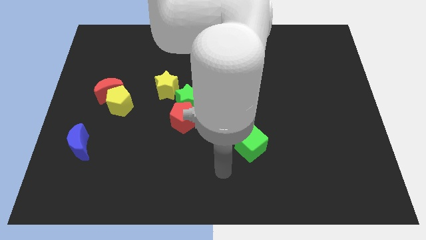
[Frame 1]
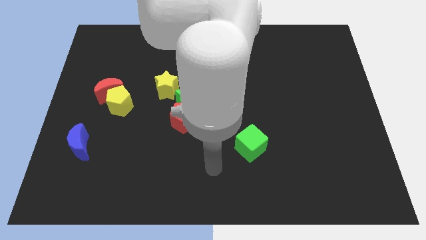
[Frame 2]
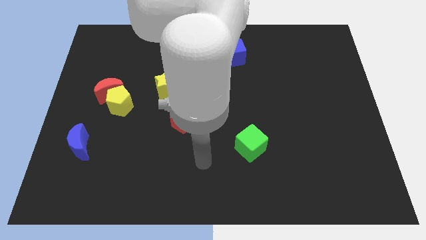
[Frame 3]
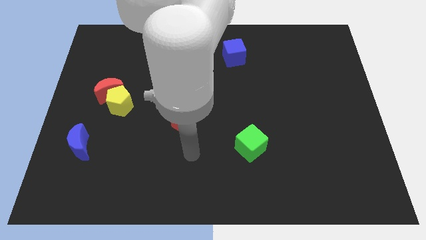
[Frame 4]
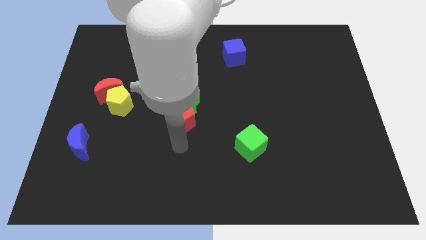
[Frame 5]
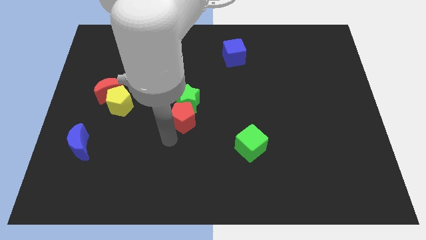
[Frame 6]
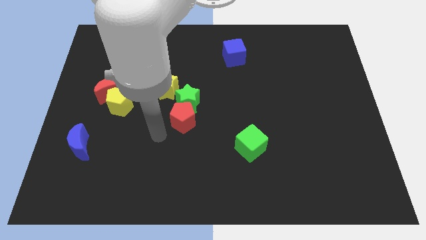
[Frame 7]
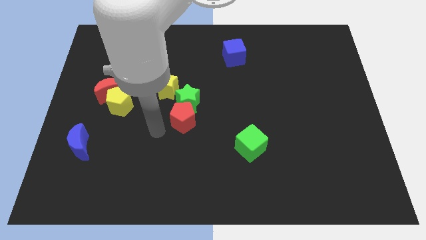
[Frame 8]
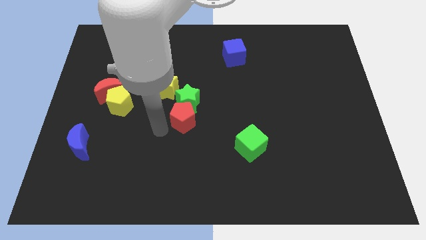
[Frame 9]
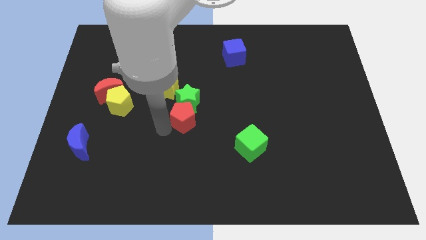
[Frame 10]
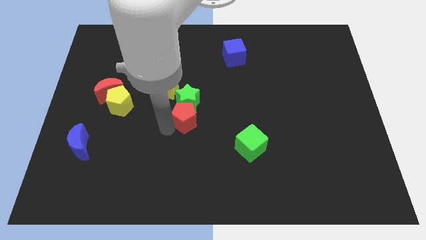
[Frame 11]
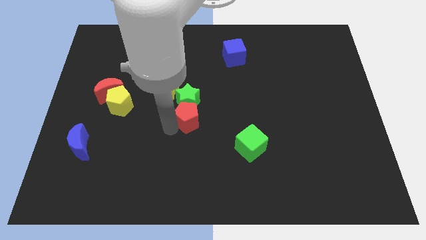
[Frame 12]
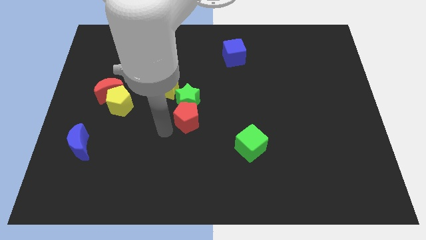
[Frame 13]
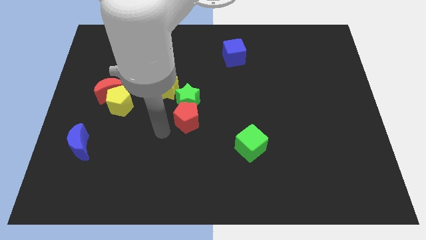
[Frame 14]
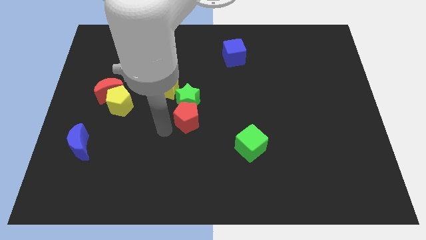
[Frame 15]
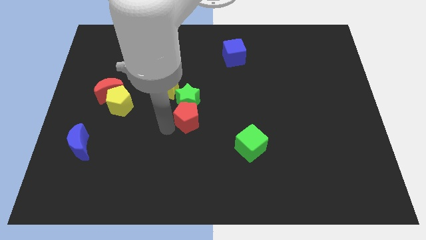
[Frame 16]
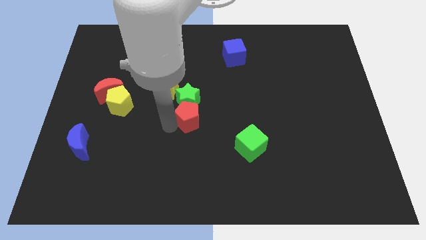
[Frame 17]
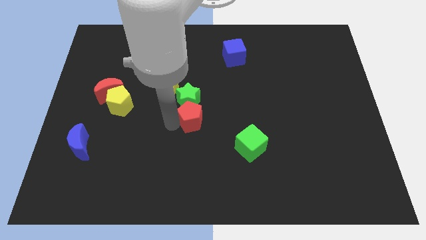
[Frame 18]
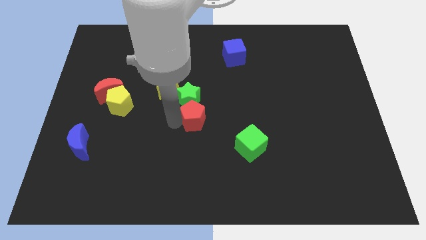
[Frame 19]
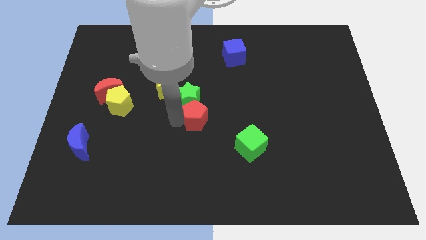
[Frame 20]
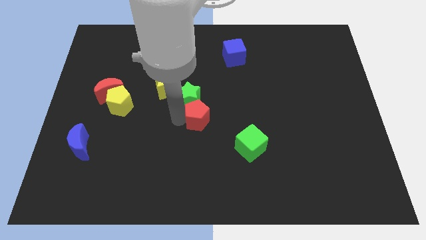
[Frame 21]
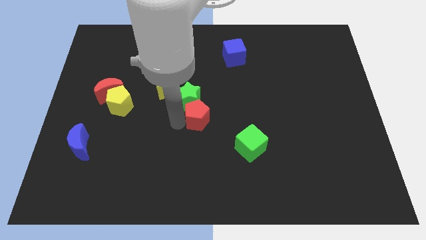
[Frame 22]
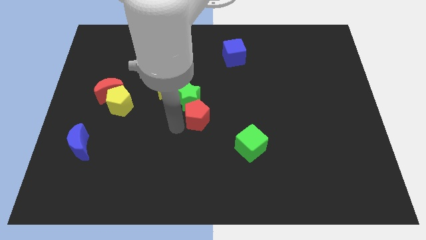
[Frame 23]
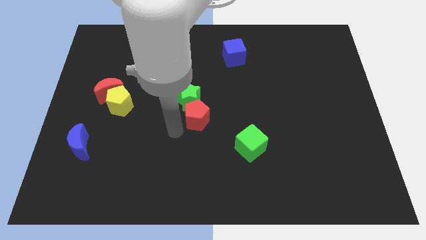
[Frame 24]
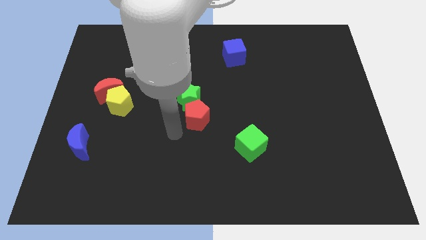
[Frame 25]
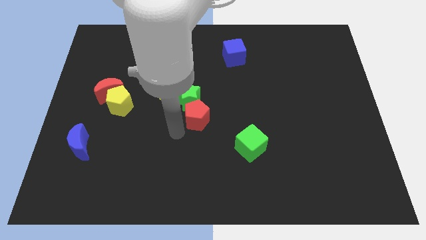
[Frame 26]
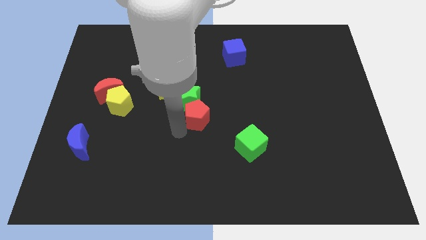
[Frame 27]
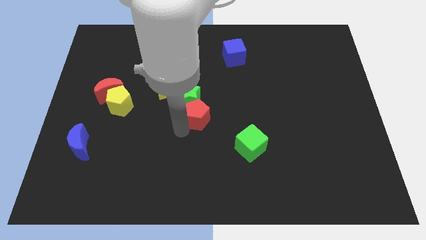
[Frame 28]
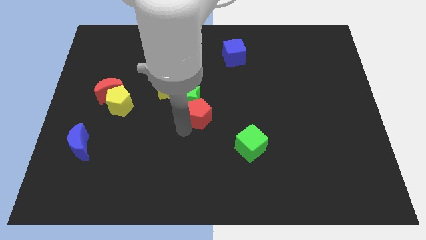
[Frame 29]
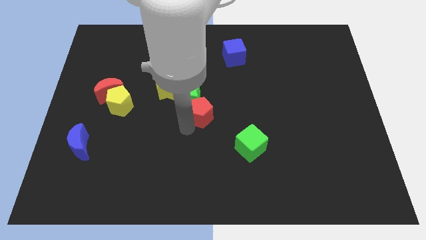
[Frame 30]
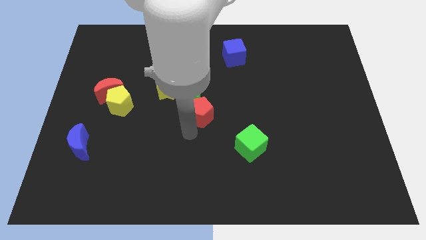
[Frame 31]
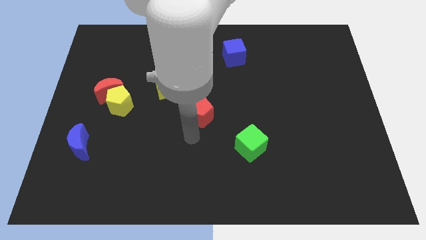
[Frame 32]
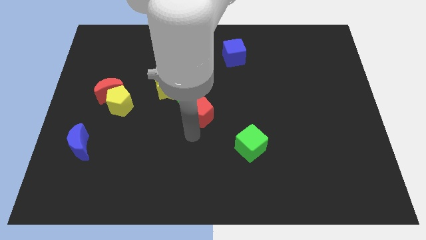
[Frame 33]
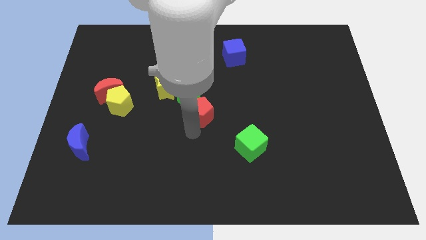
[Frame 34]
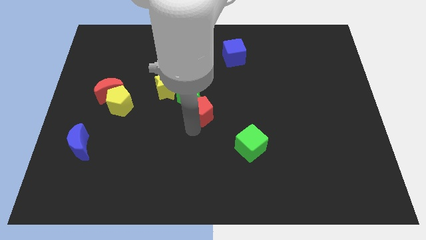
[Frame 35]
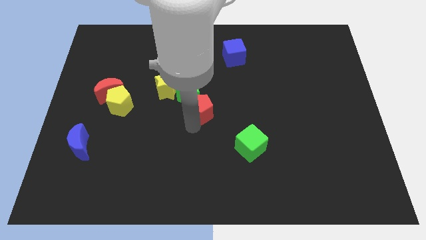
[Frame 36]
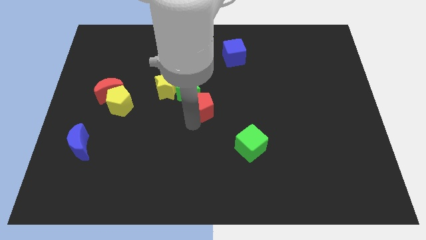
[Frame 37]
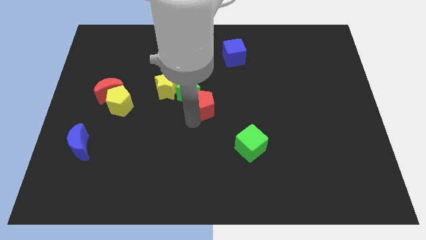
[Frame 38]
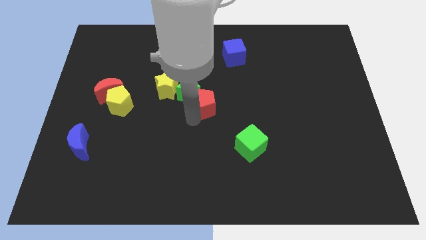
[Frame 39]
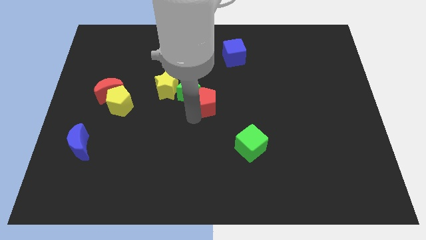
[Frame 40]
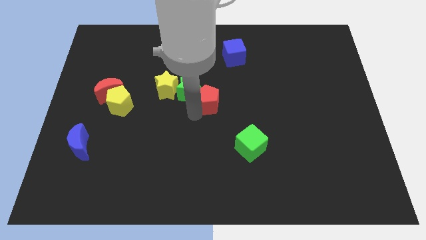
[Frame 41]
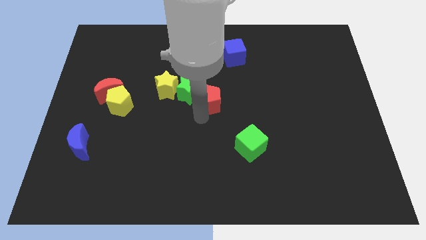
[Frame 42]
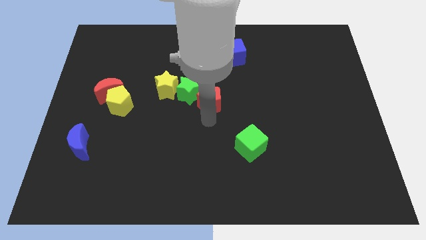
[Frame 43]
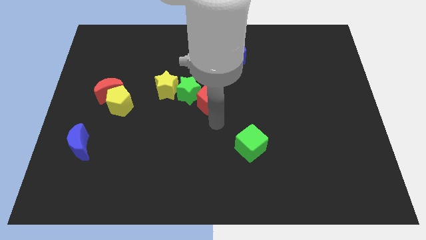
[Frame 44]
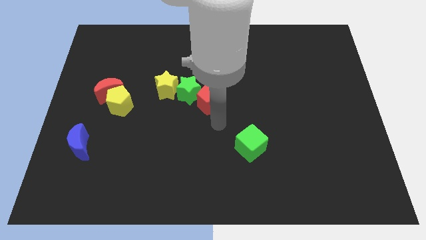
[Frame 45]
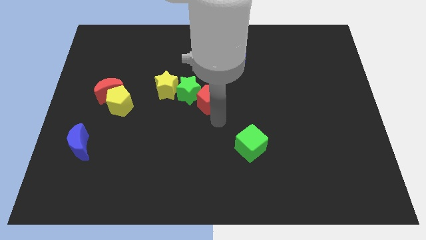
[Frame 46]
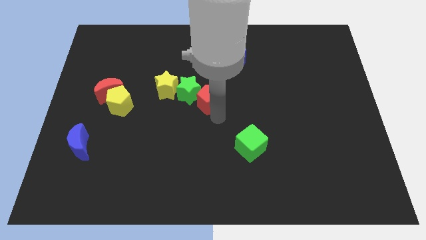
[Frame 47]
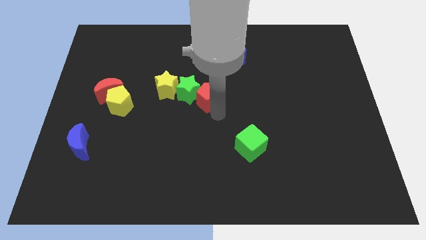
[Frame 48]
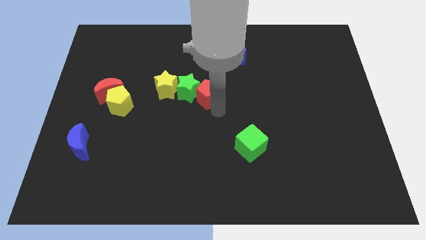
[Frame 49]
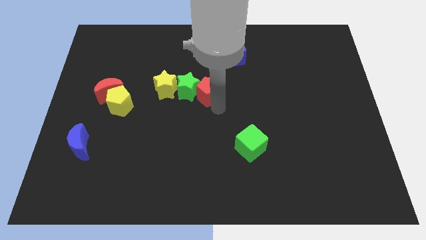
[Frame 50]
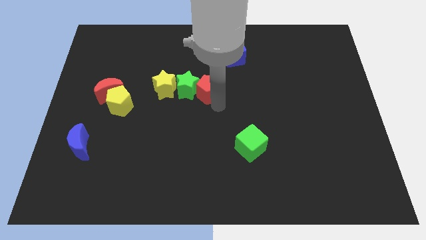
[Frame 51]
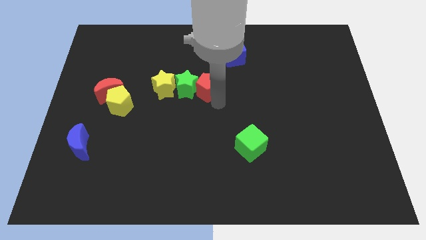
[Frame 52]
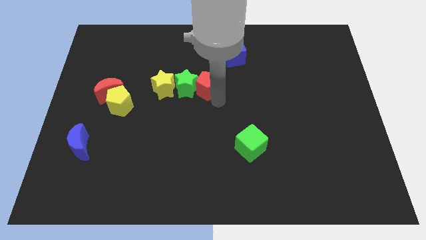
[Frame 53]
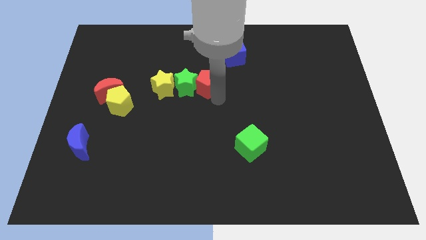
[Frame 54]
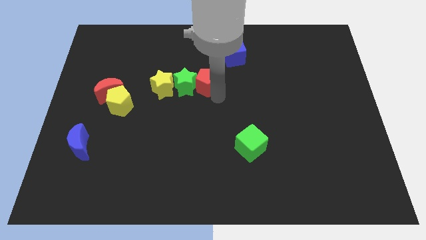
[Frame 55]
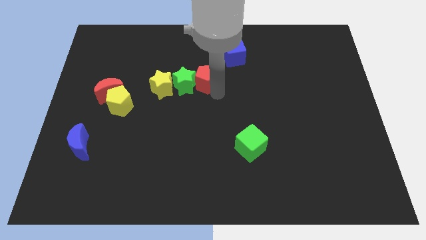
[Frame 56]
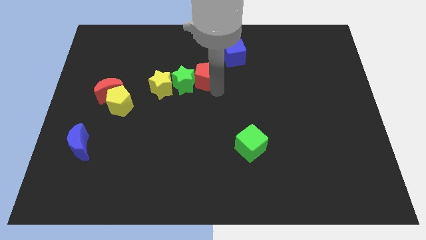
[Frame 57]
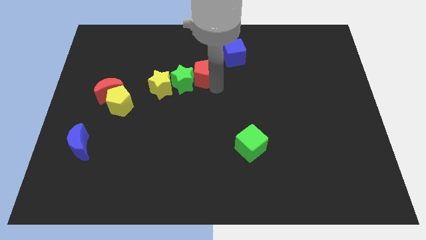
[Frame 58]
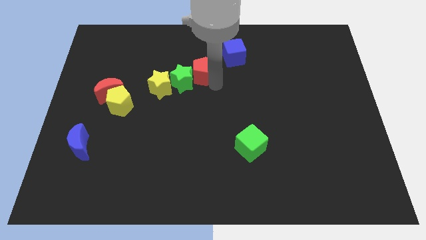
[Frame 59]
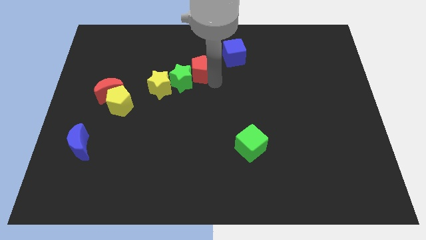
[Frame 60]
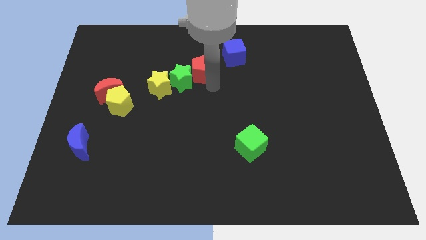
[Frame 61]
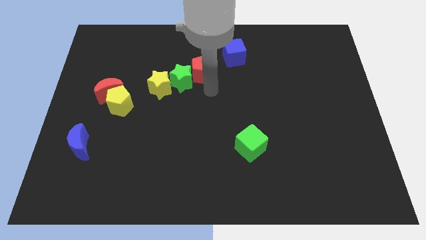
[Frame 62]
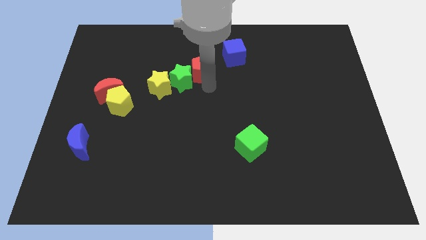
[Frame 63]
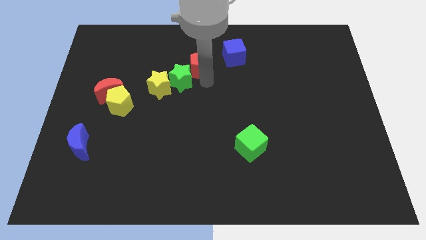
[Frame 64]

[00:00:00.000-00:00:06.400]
move the red pentagon left of the blue cube
